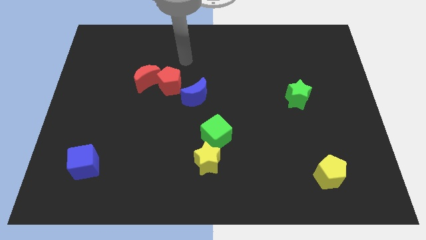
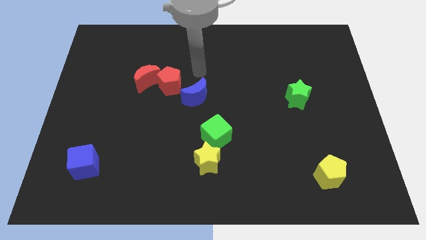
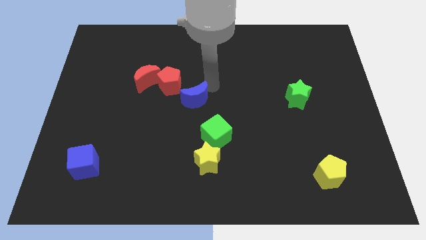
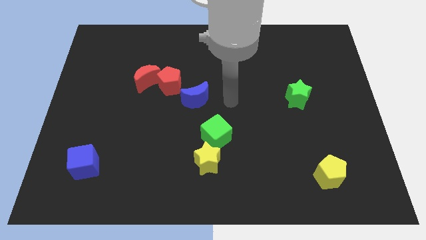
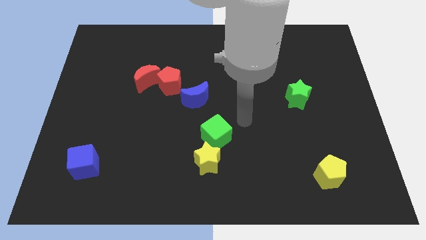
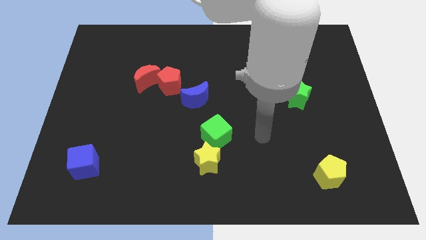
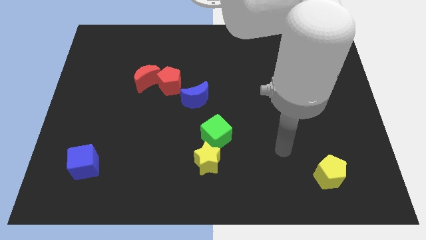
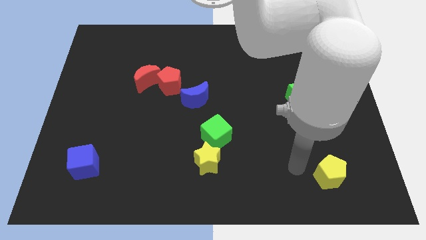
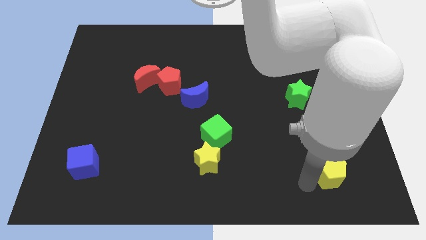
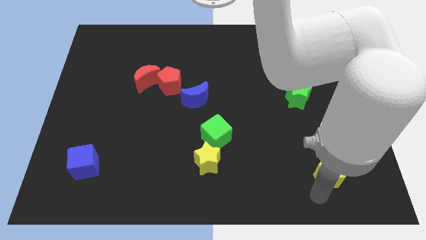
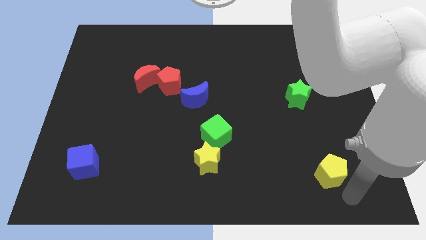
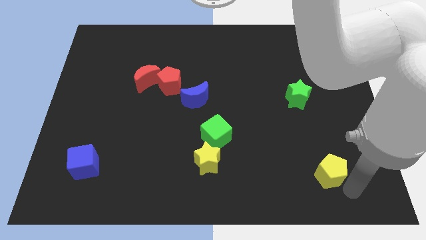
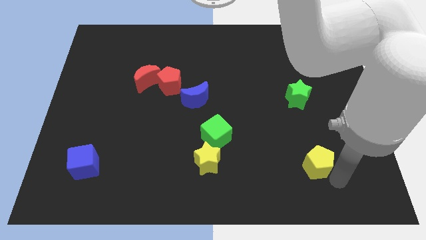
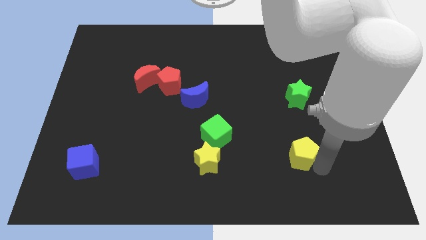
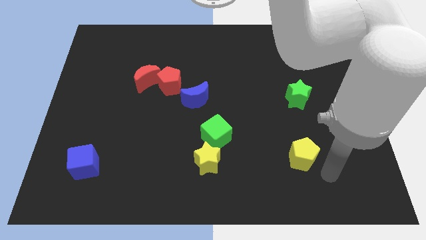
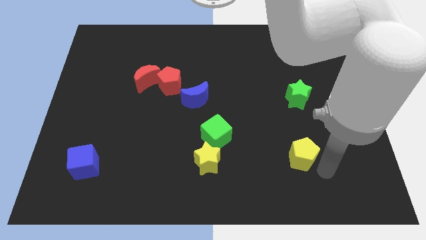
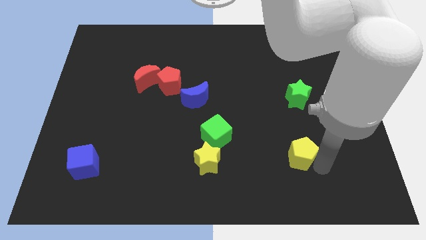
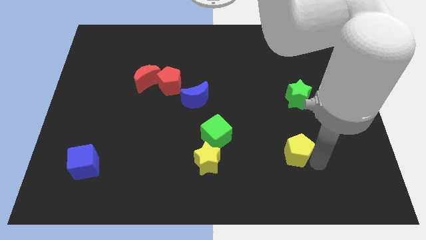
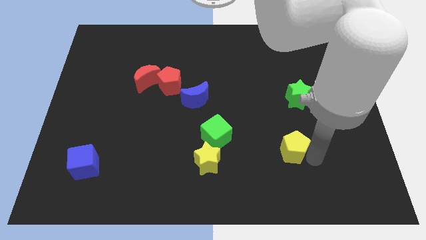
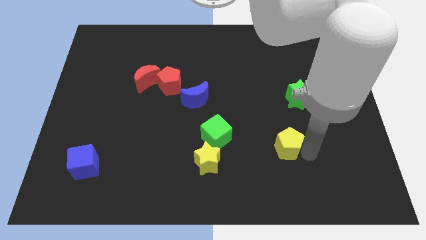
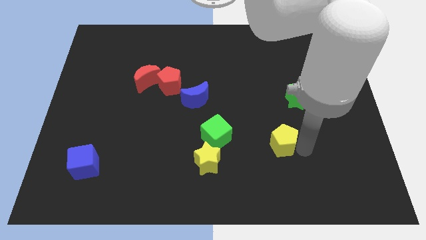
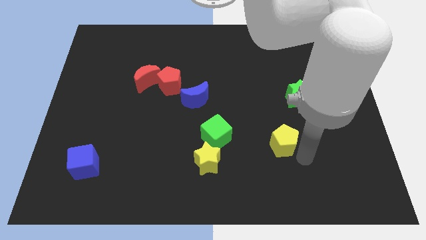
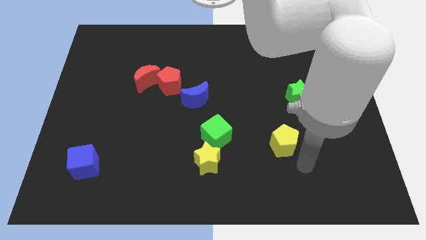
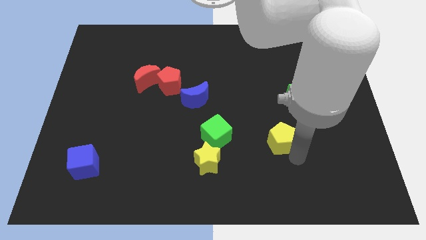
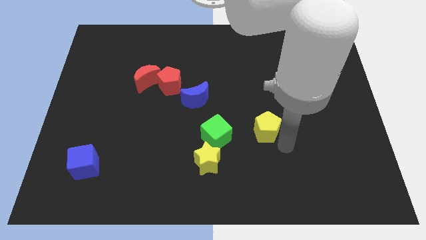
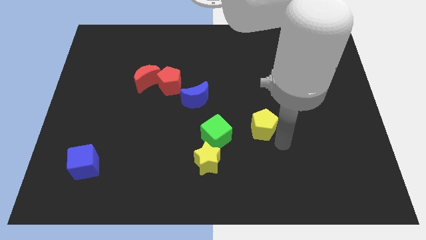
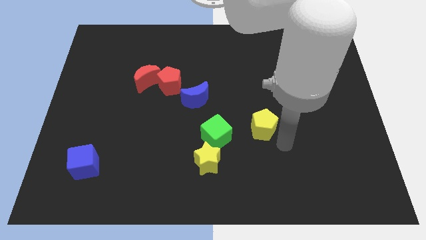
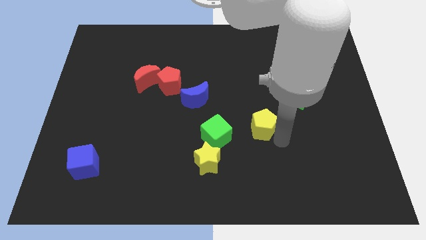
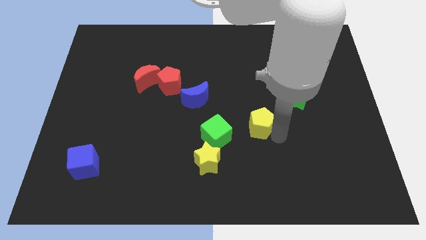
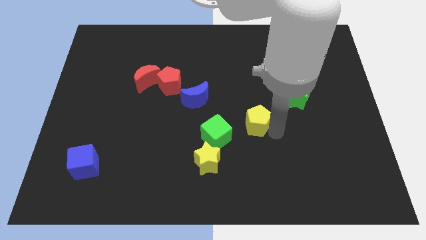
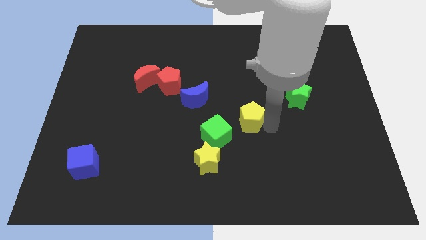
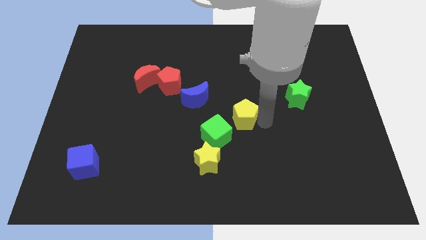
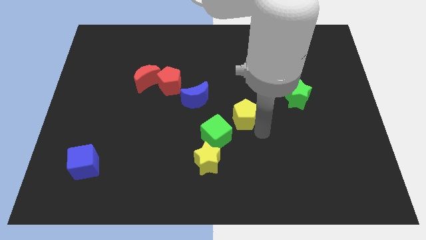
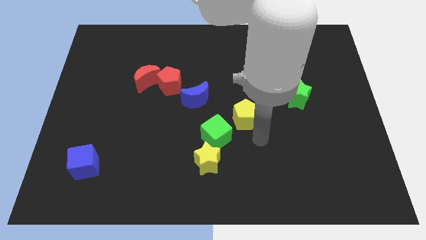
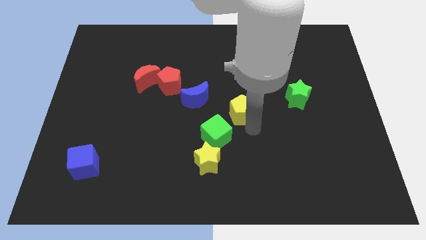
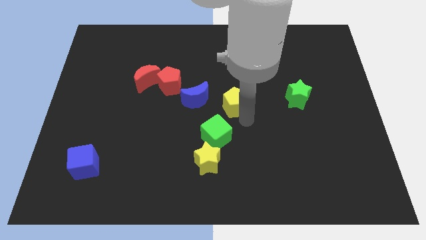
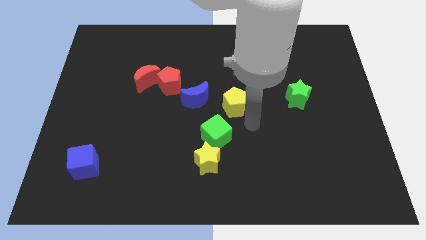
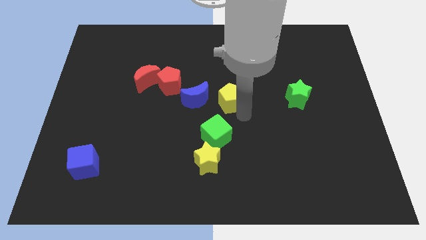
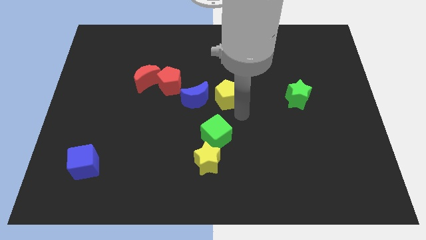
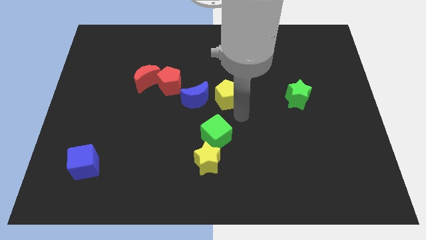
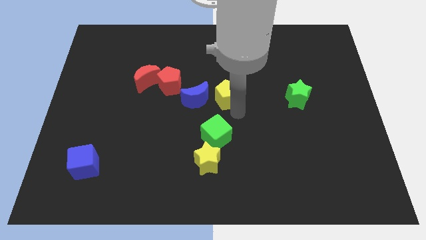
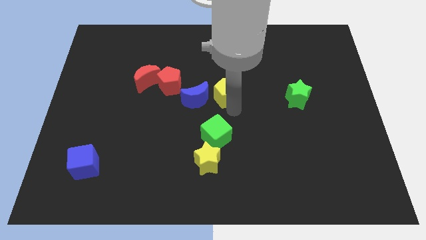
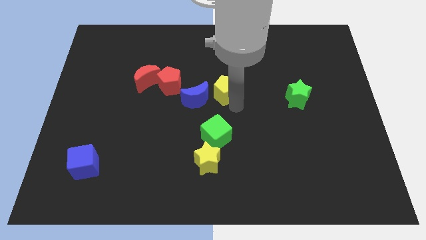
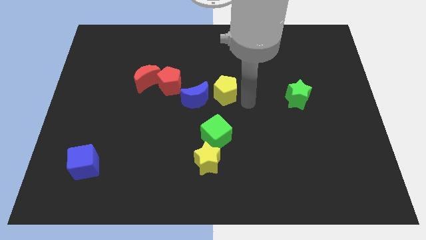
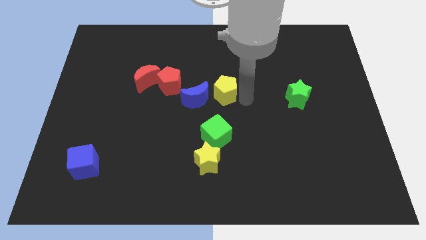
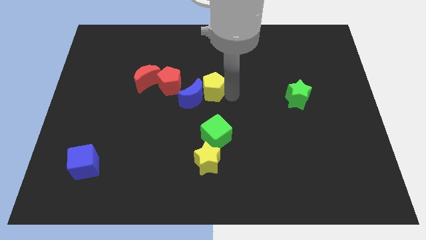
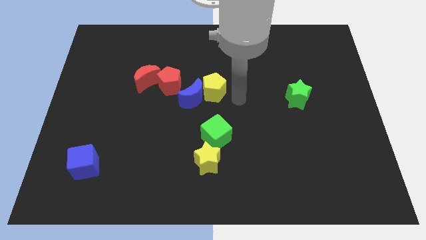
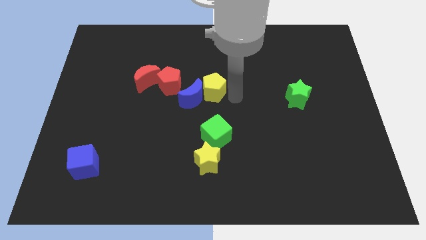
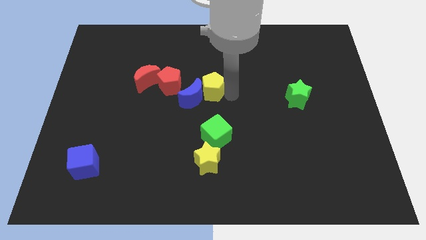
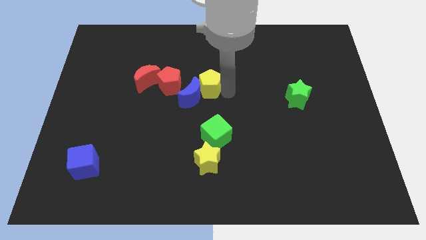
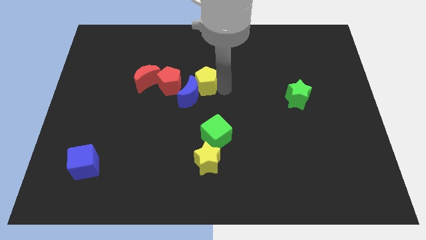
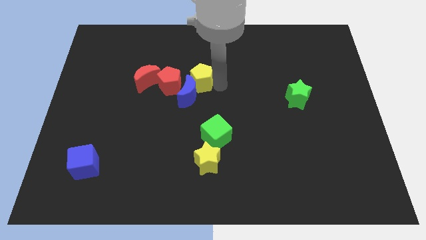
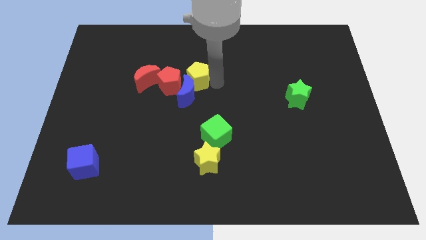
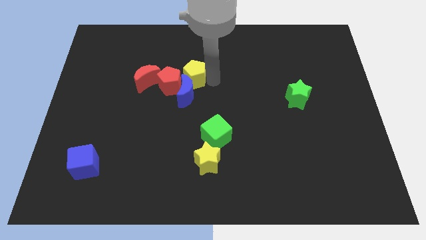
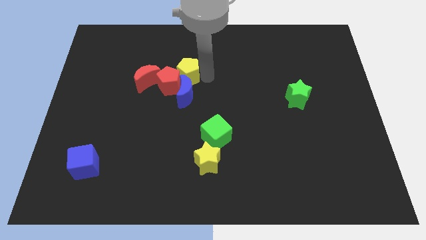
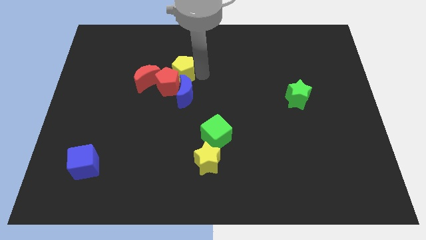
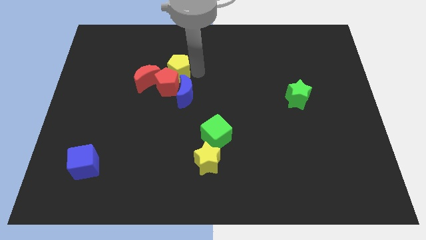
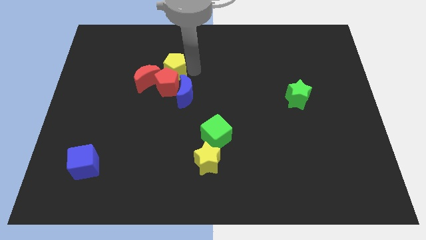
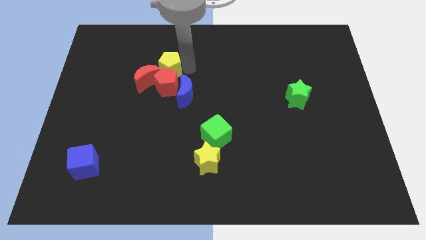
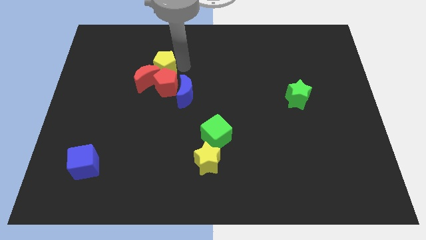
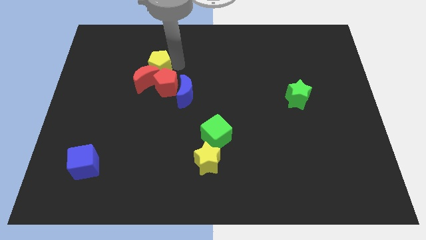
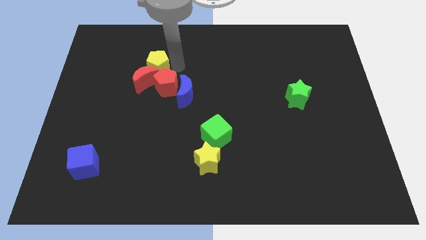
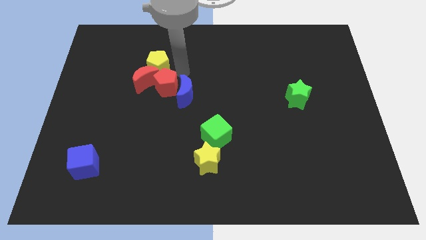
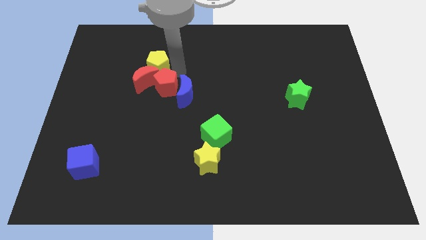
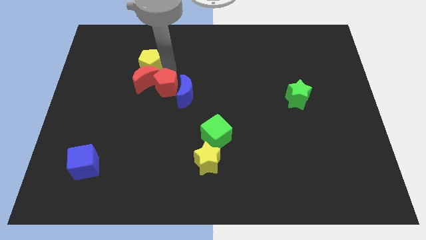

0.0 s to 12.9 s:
move the yellow pentagon diagonally up and to the left of the red moon
